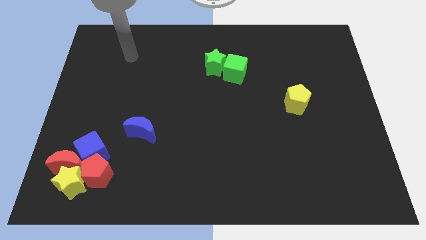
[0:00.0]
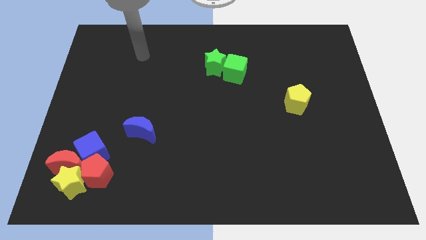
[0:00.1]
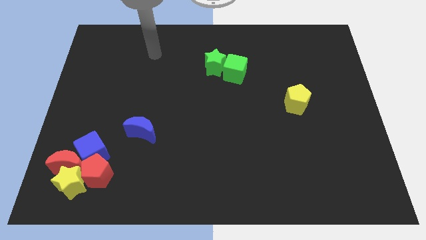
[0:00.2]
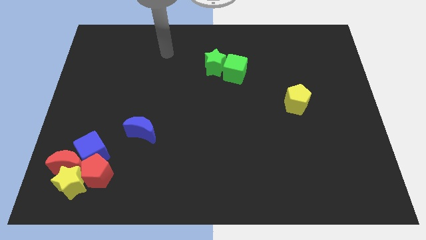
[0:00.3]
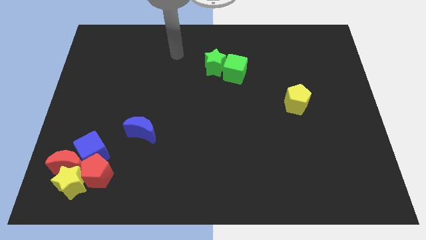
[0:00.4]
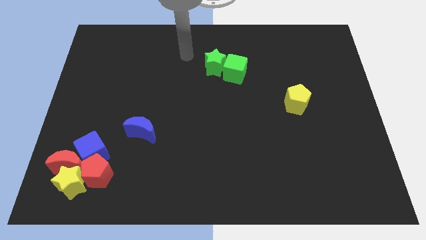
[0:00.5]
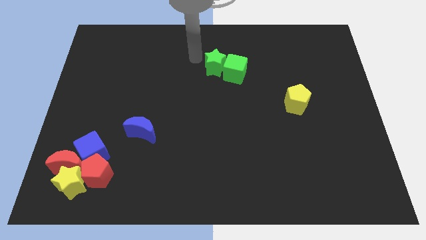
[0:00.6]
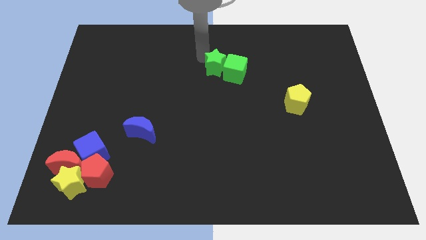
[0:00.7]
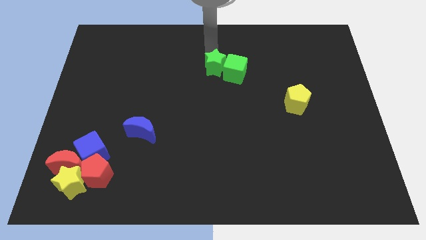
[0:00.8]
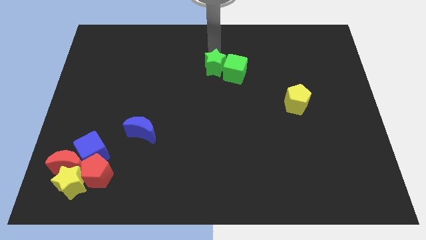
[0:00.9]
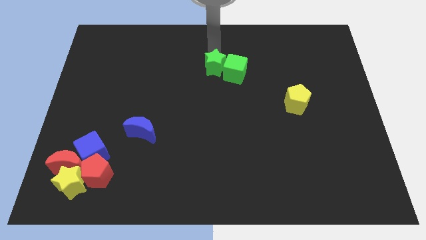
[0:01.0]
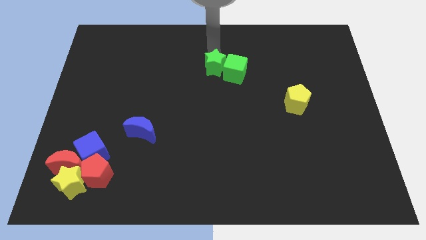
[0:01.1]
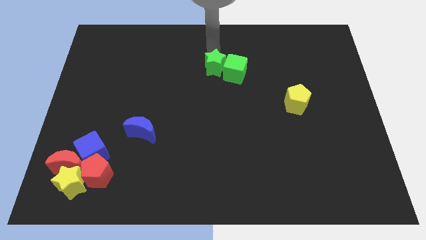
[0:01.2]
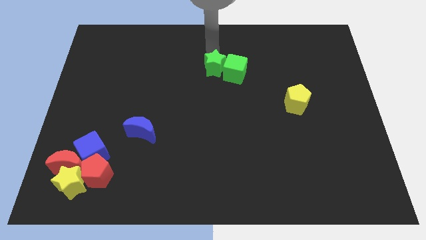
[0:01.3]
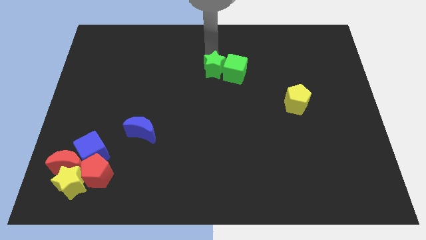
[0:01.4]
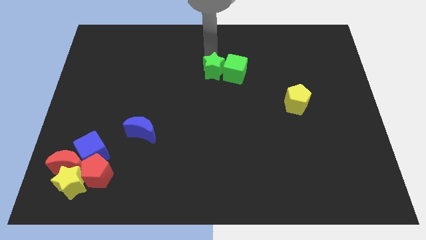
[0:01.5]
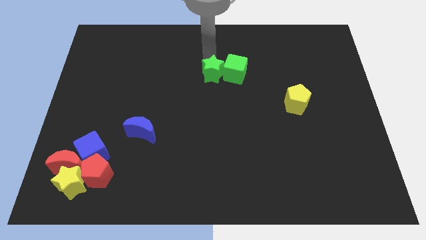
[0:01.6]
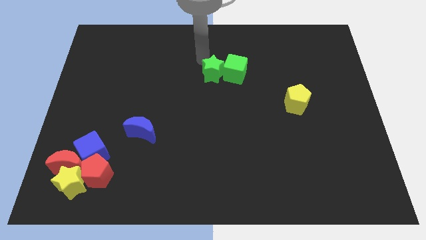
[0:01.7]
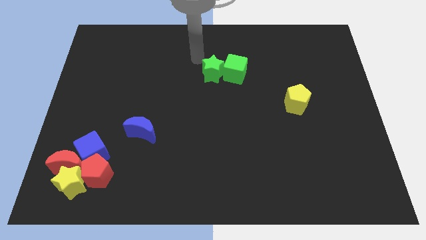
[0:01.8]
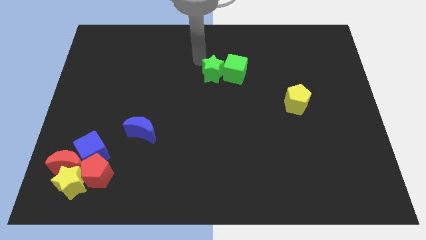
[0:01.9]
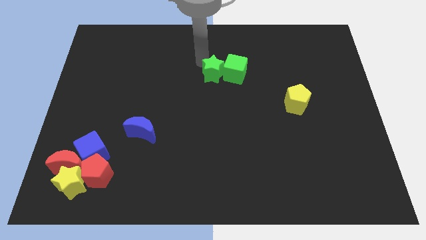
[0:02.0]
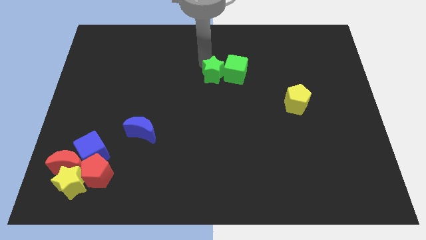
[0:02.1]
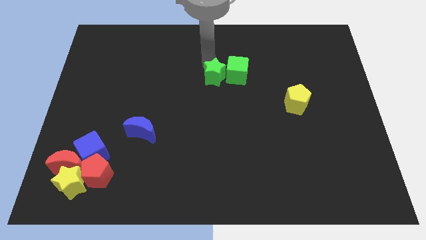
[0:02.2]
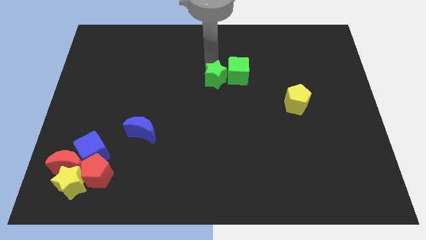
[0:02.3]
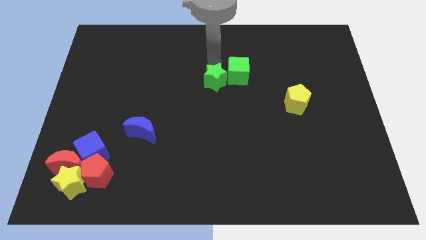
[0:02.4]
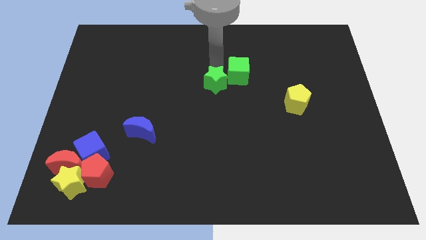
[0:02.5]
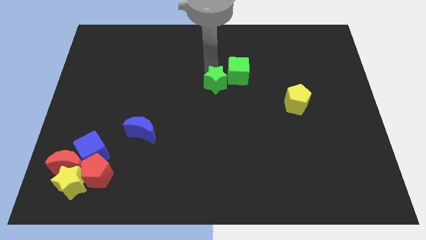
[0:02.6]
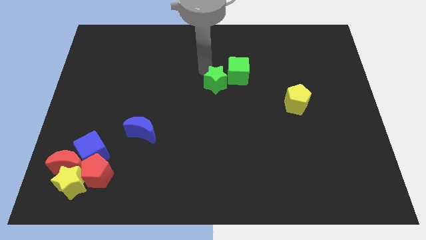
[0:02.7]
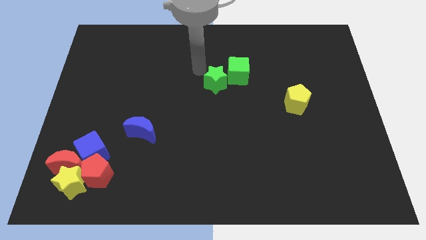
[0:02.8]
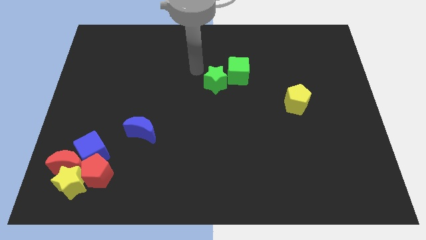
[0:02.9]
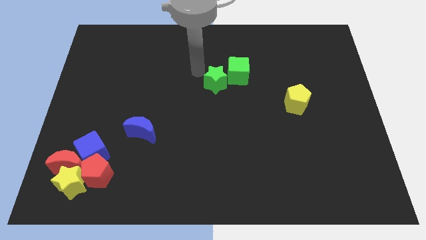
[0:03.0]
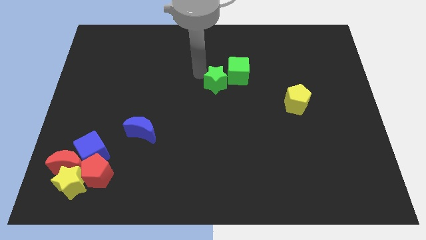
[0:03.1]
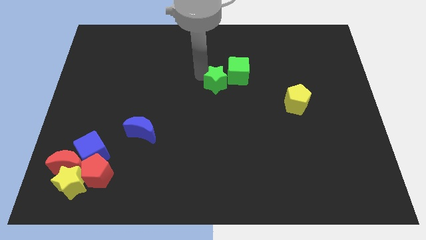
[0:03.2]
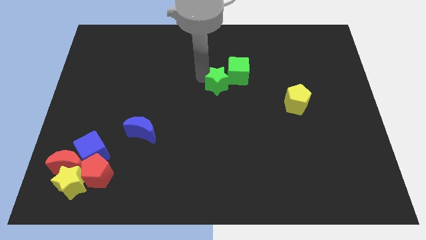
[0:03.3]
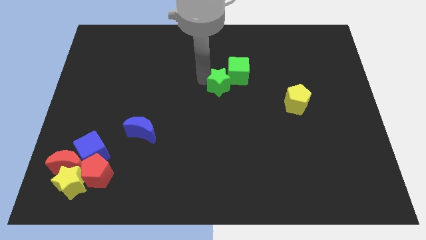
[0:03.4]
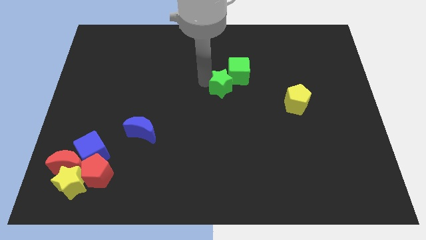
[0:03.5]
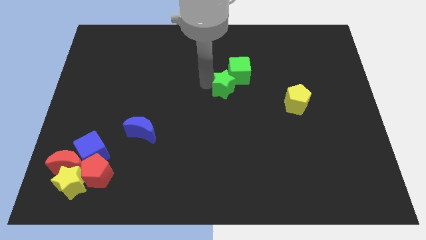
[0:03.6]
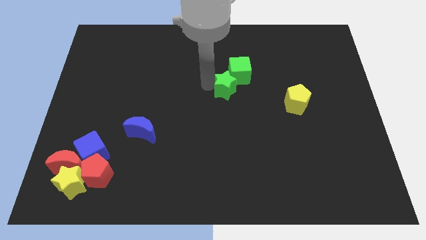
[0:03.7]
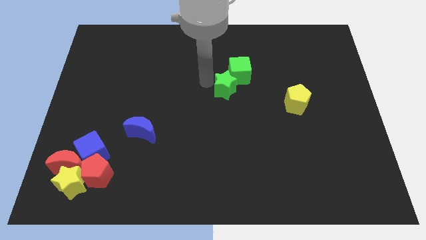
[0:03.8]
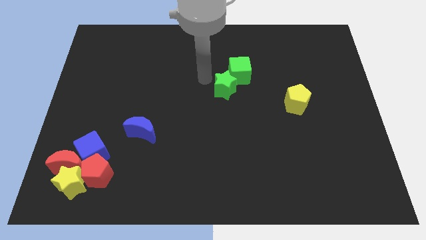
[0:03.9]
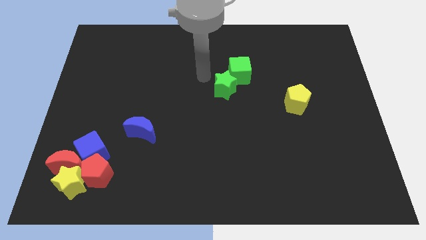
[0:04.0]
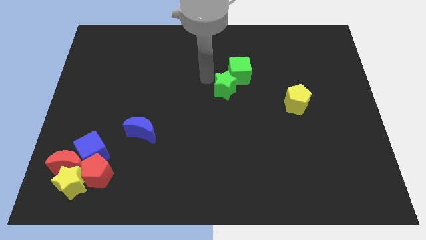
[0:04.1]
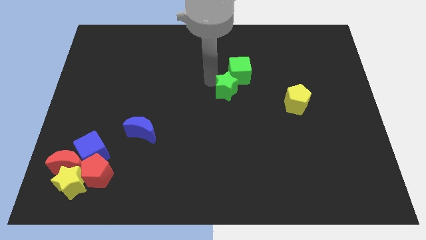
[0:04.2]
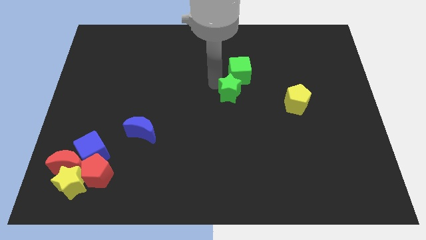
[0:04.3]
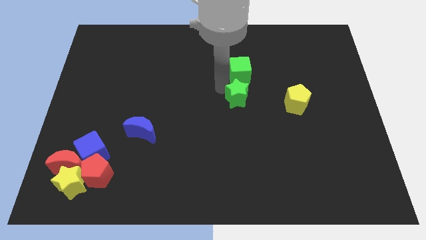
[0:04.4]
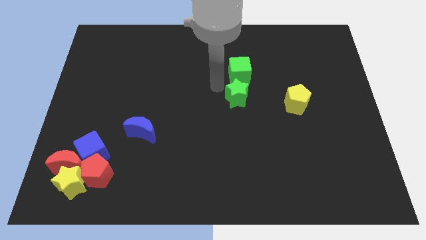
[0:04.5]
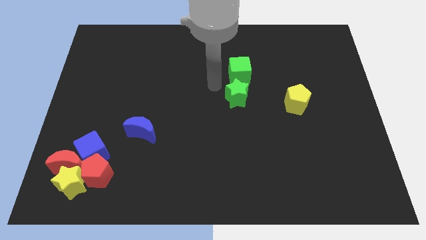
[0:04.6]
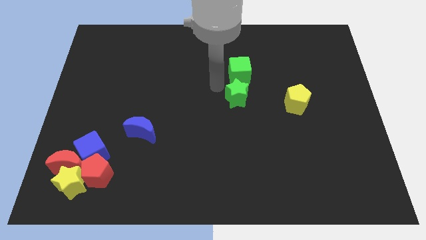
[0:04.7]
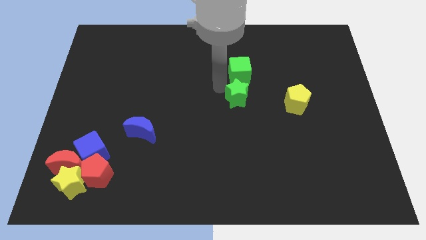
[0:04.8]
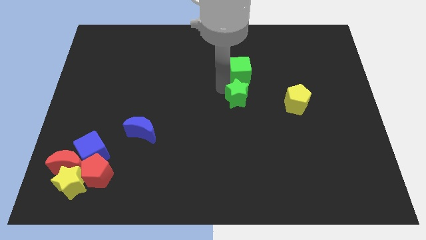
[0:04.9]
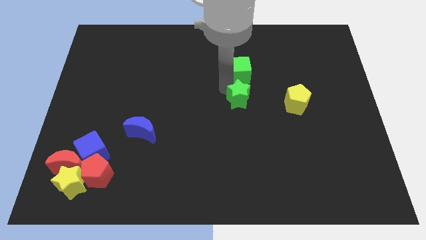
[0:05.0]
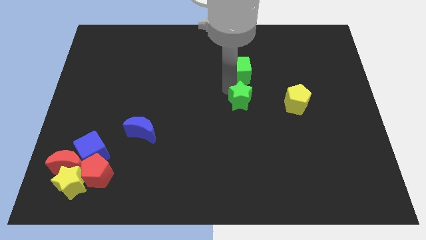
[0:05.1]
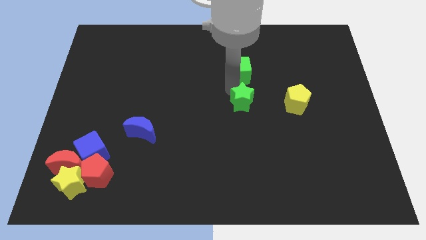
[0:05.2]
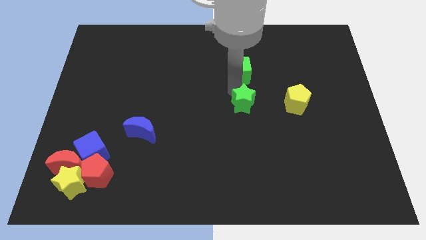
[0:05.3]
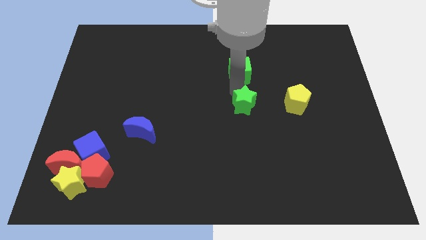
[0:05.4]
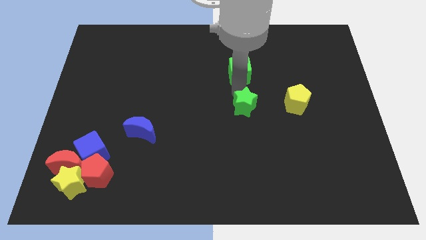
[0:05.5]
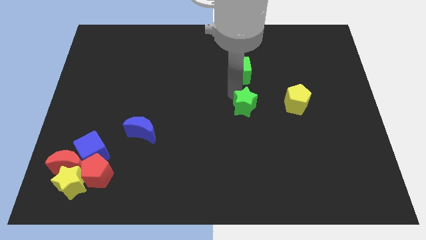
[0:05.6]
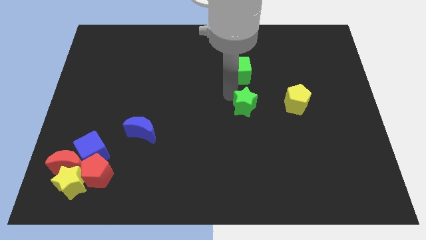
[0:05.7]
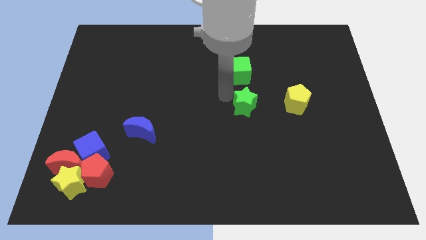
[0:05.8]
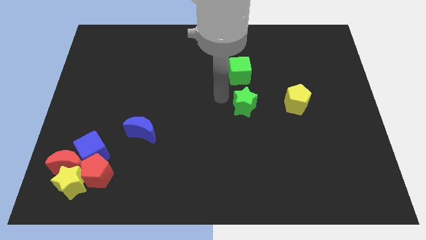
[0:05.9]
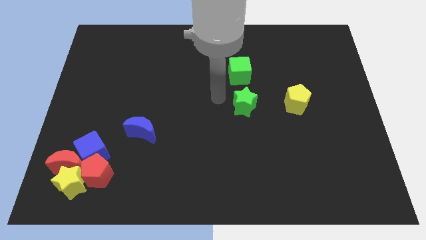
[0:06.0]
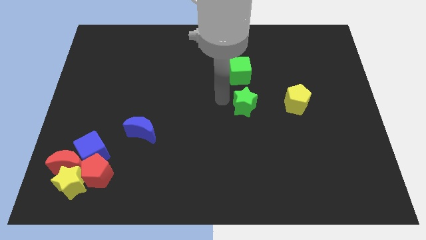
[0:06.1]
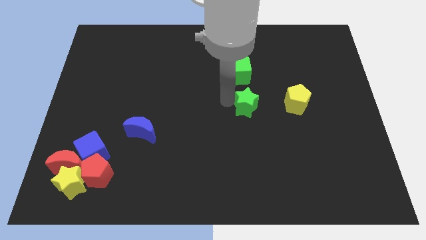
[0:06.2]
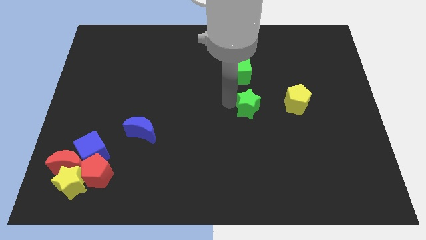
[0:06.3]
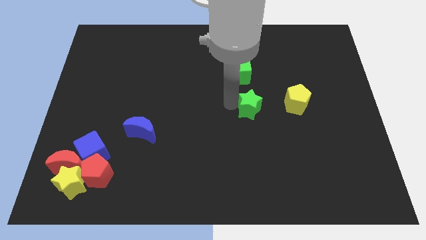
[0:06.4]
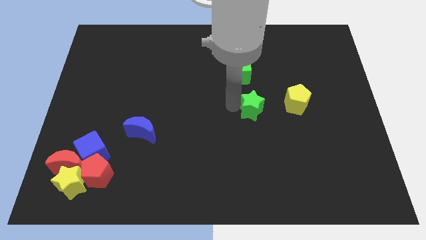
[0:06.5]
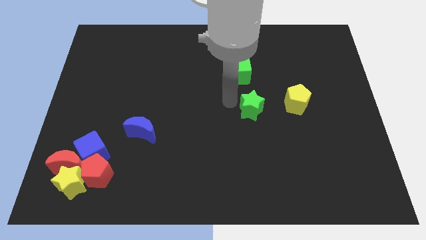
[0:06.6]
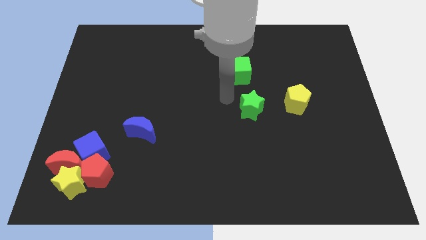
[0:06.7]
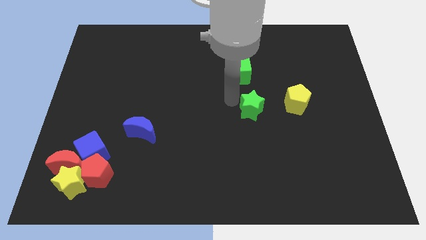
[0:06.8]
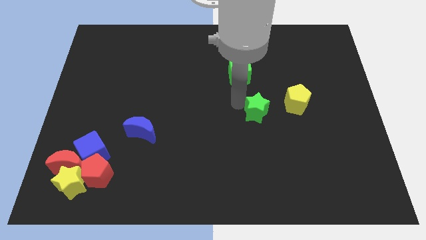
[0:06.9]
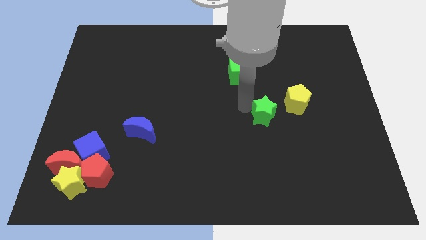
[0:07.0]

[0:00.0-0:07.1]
slide the green star to the bottom left side of the yellow pentagon
